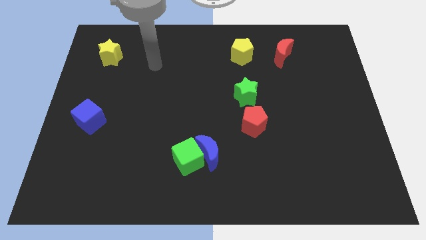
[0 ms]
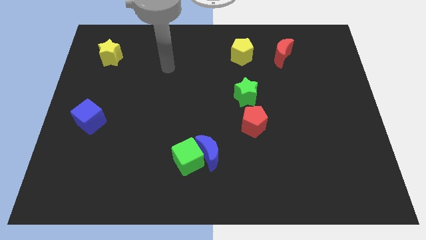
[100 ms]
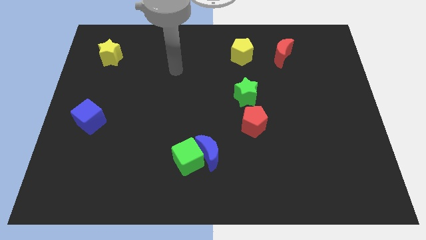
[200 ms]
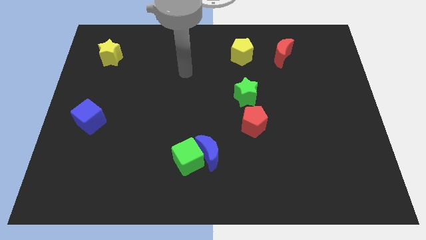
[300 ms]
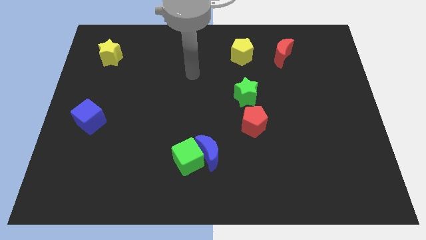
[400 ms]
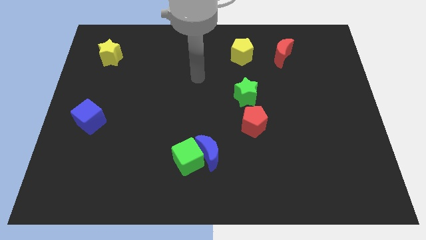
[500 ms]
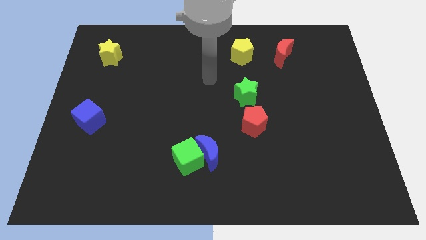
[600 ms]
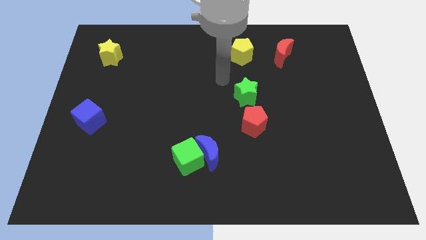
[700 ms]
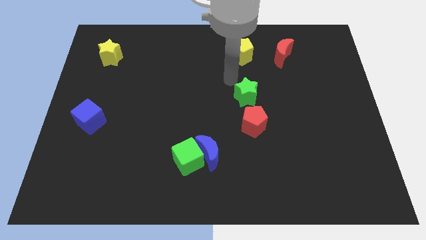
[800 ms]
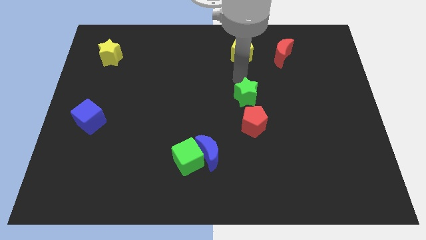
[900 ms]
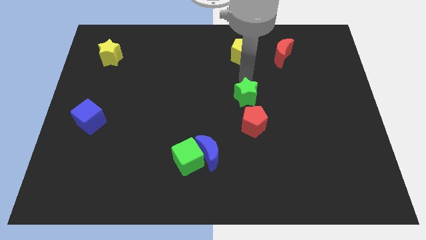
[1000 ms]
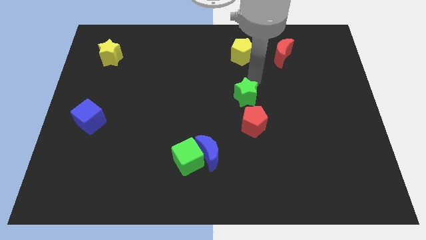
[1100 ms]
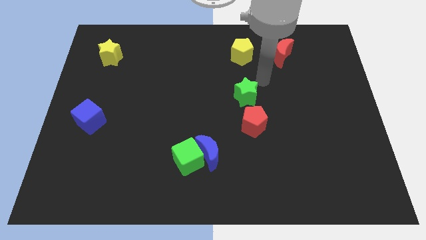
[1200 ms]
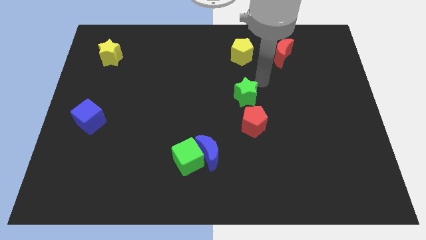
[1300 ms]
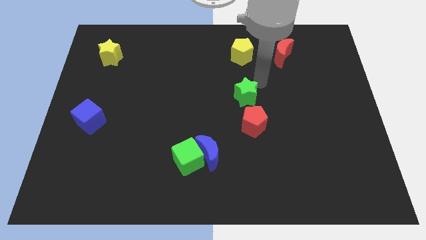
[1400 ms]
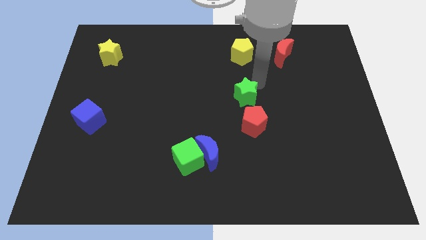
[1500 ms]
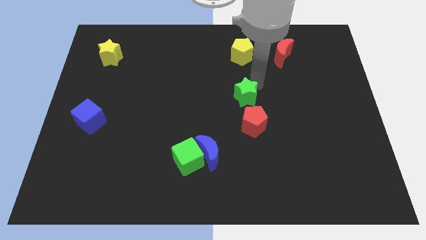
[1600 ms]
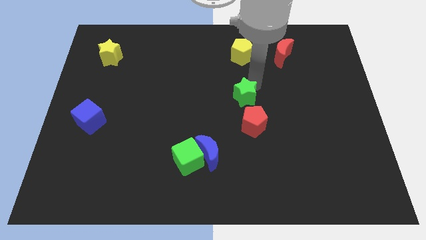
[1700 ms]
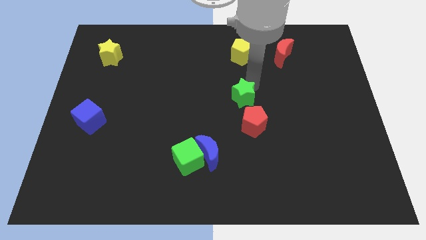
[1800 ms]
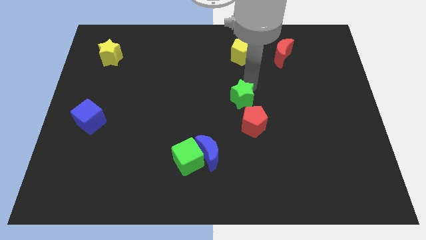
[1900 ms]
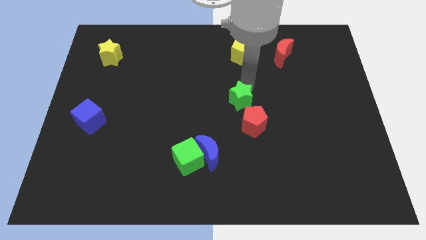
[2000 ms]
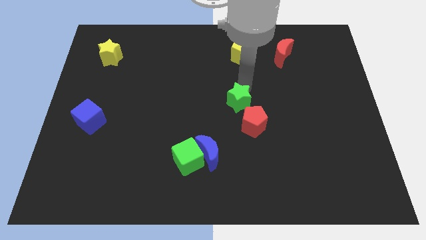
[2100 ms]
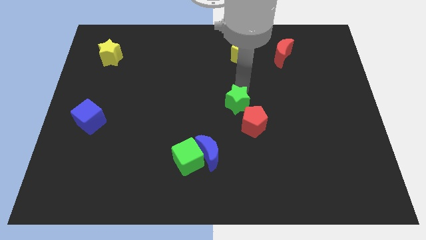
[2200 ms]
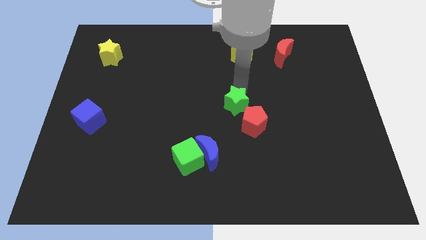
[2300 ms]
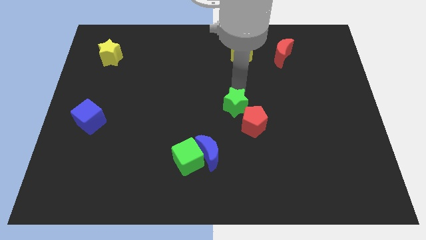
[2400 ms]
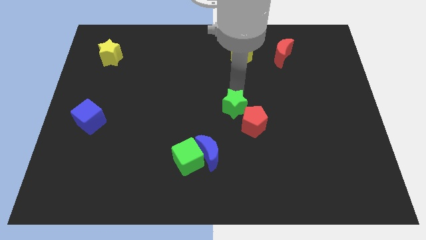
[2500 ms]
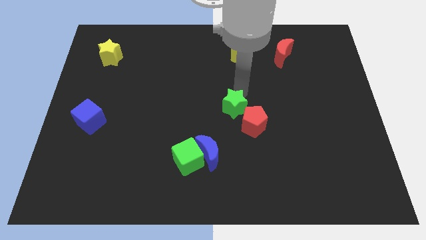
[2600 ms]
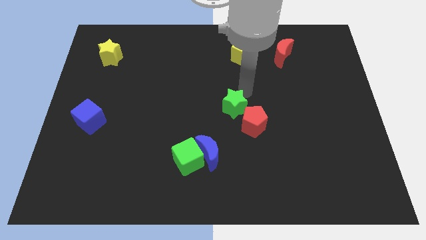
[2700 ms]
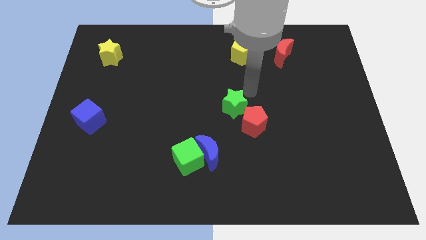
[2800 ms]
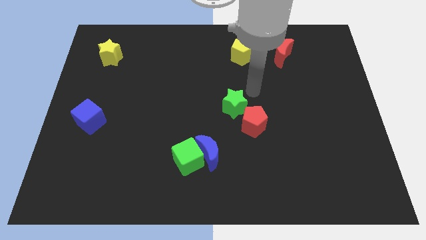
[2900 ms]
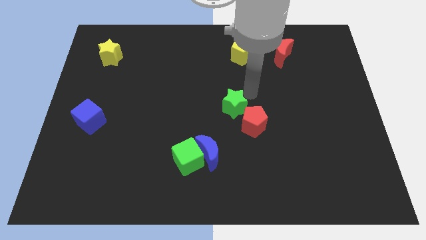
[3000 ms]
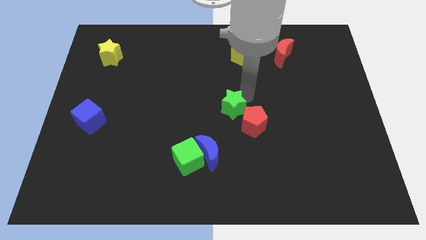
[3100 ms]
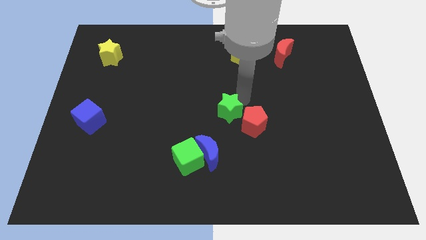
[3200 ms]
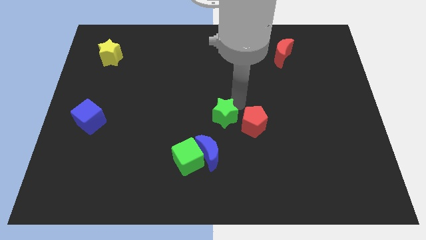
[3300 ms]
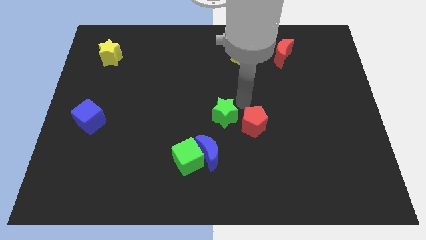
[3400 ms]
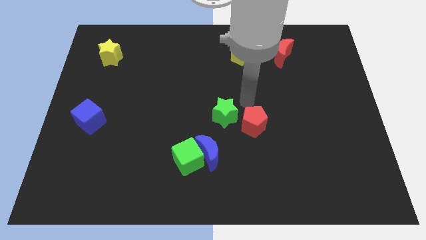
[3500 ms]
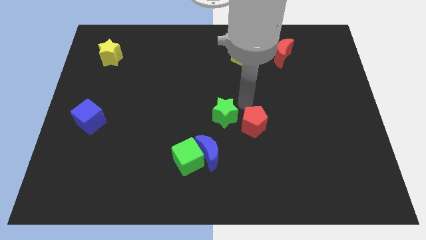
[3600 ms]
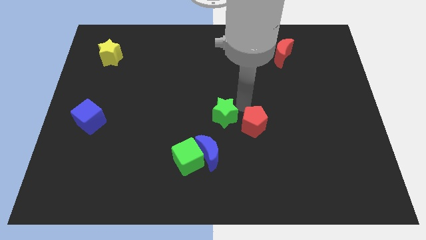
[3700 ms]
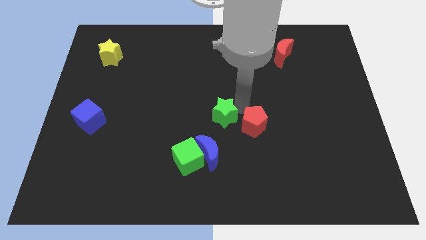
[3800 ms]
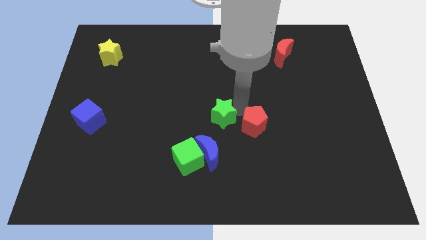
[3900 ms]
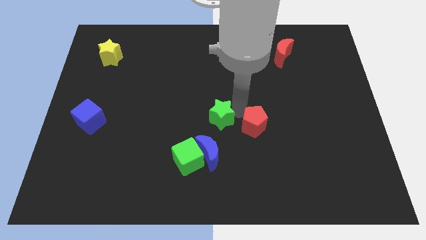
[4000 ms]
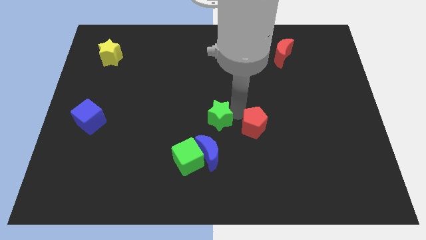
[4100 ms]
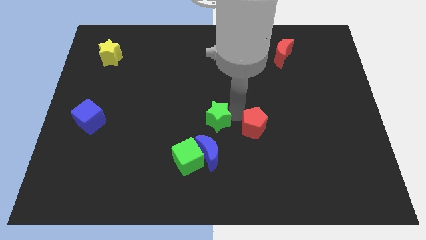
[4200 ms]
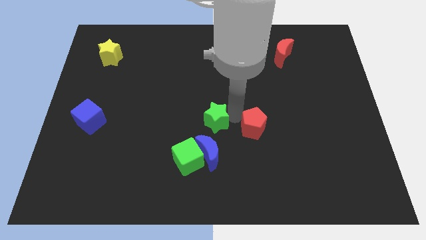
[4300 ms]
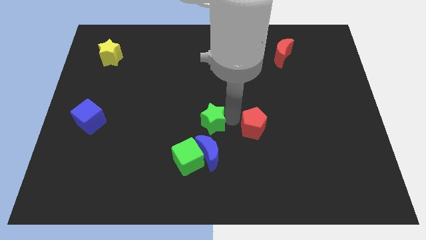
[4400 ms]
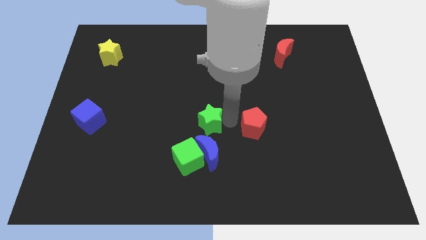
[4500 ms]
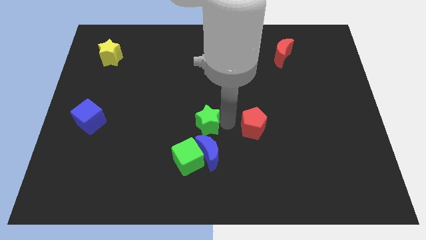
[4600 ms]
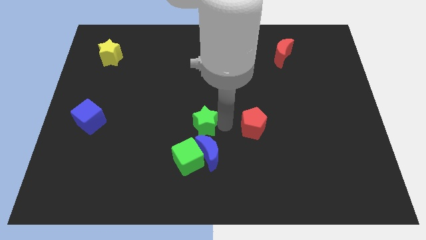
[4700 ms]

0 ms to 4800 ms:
push the green star diagonally up and to the left of the blue moon

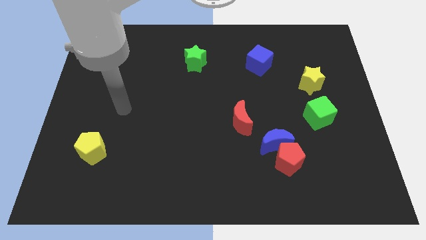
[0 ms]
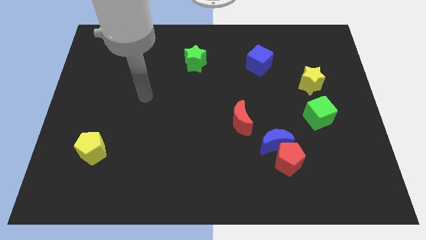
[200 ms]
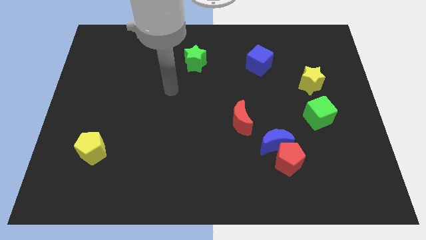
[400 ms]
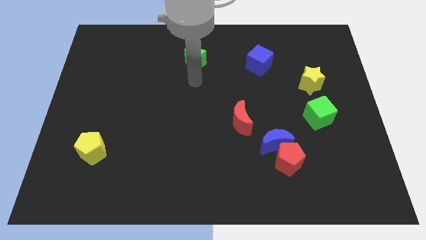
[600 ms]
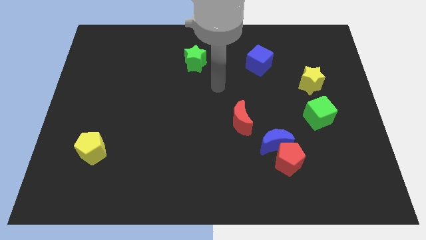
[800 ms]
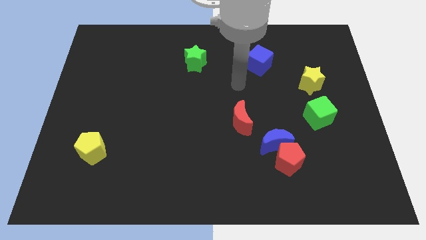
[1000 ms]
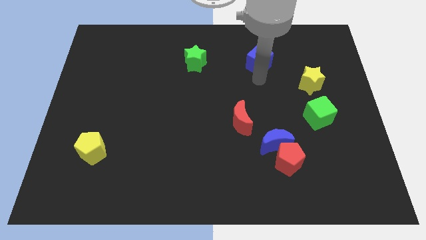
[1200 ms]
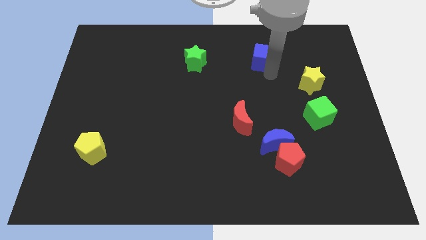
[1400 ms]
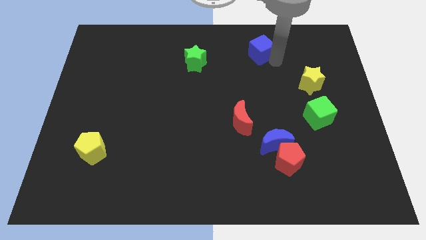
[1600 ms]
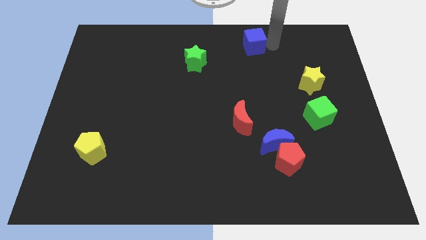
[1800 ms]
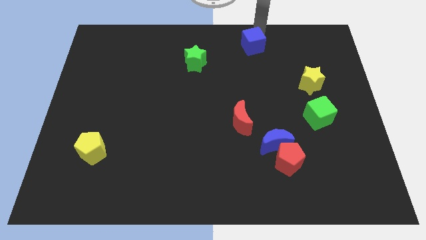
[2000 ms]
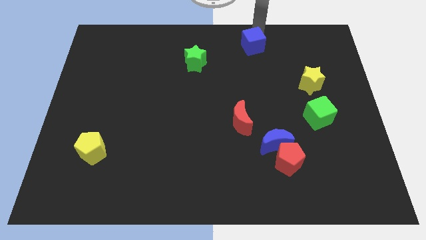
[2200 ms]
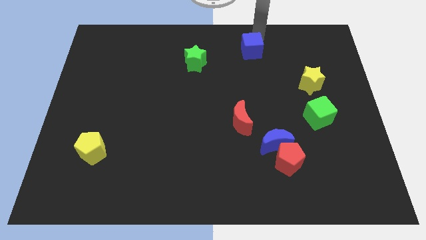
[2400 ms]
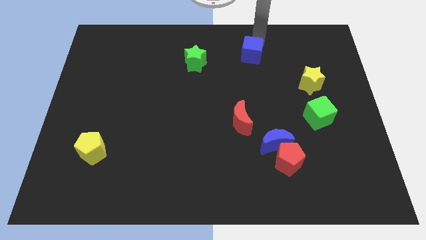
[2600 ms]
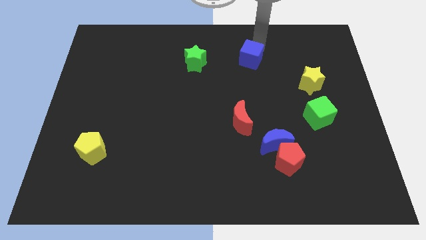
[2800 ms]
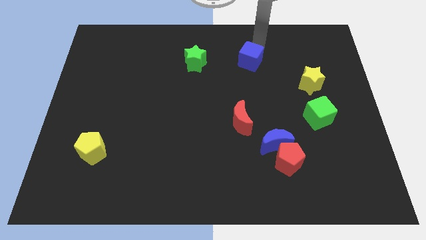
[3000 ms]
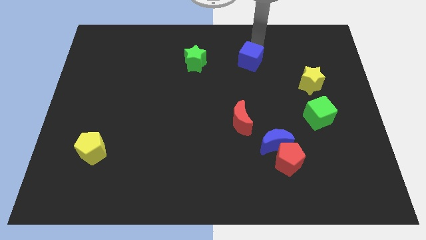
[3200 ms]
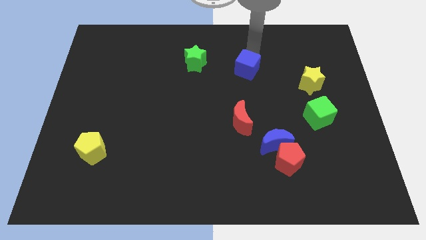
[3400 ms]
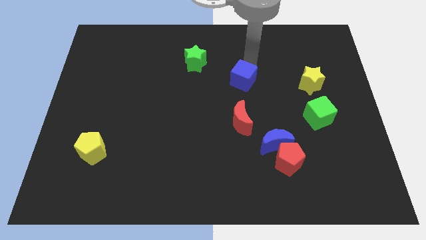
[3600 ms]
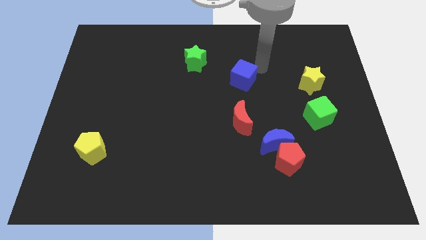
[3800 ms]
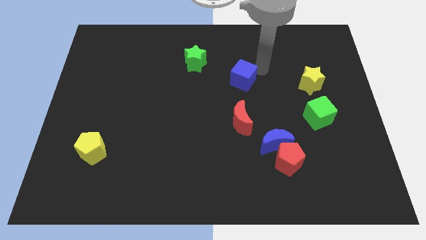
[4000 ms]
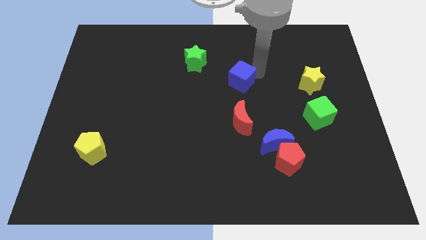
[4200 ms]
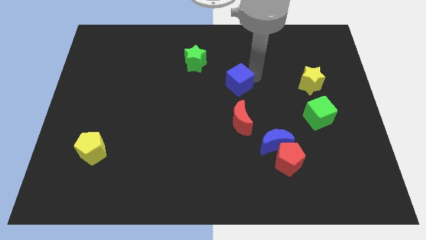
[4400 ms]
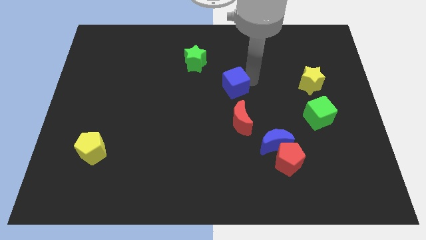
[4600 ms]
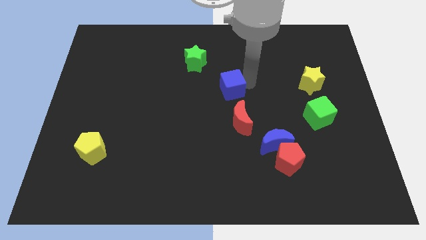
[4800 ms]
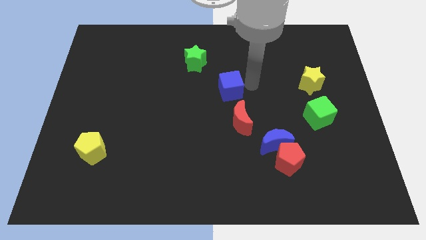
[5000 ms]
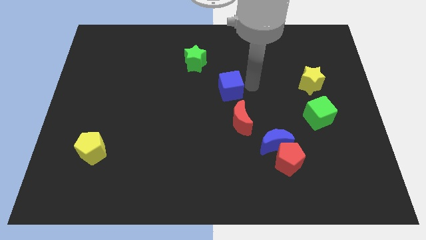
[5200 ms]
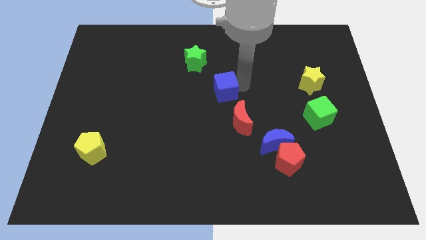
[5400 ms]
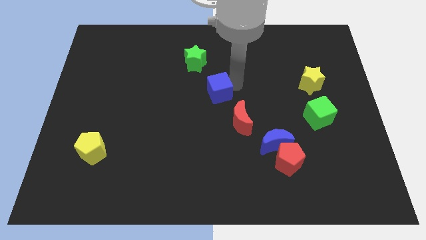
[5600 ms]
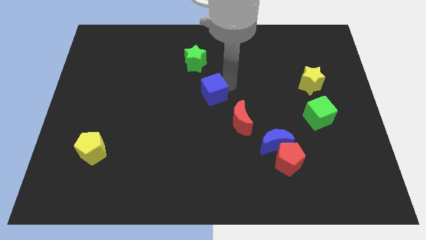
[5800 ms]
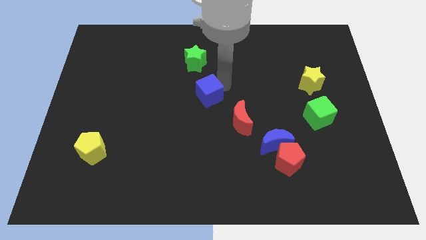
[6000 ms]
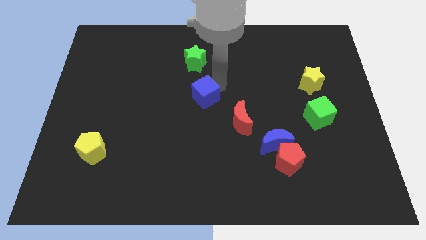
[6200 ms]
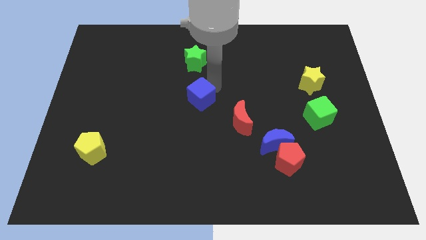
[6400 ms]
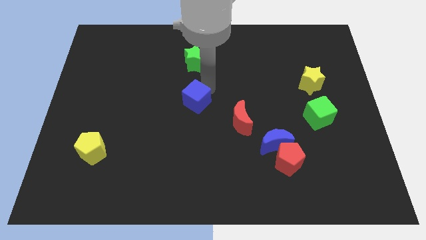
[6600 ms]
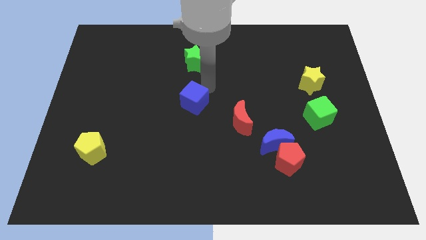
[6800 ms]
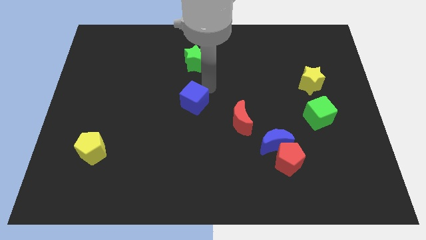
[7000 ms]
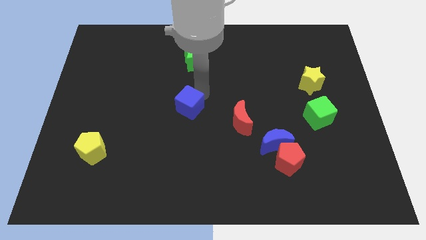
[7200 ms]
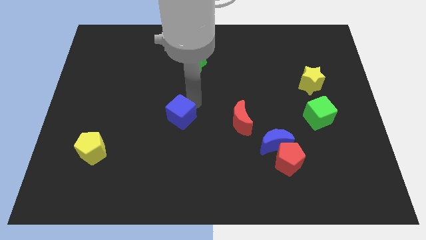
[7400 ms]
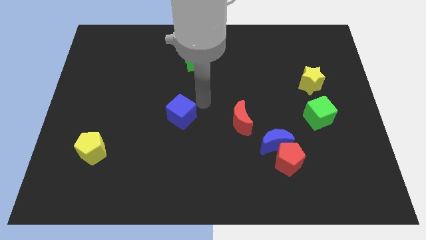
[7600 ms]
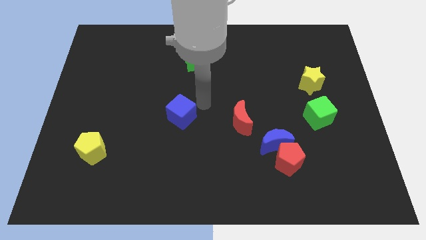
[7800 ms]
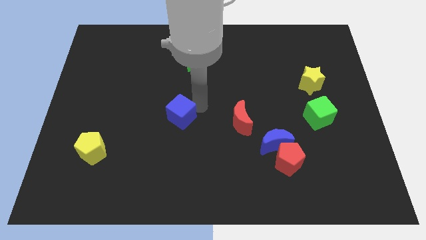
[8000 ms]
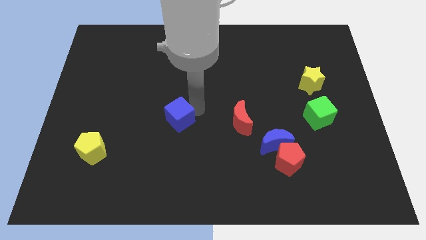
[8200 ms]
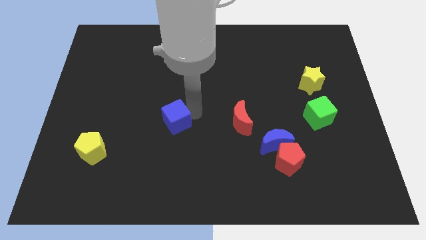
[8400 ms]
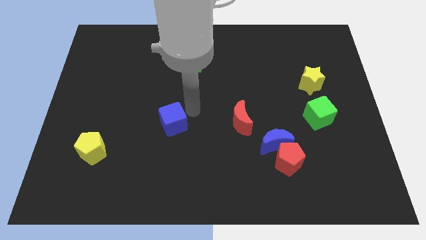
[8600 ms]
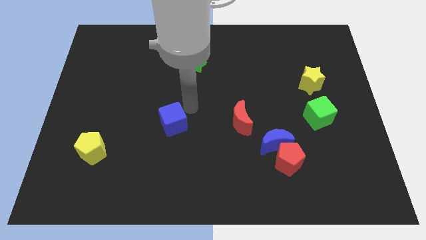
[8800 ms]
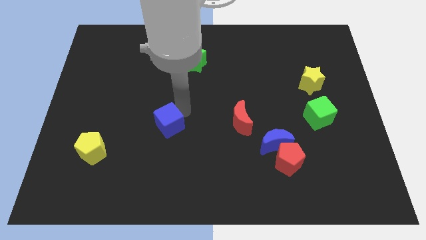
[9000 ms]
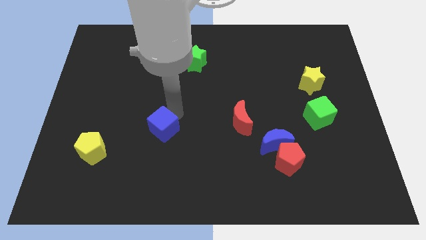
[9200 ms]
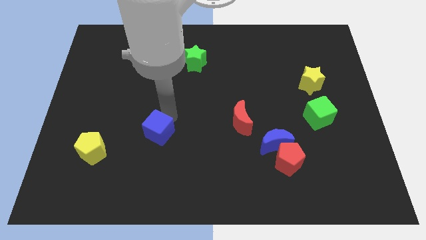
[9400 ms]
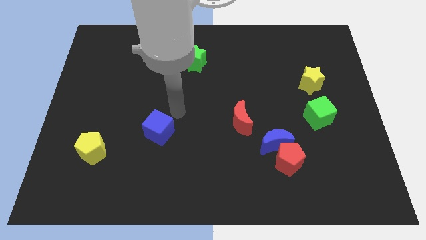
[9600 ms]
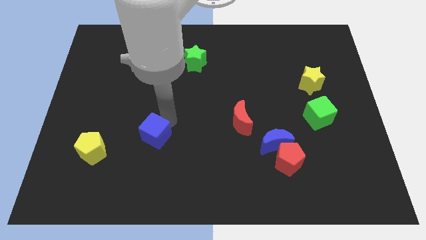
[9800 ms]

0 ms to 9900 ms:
move the blue cube right of the yellow pentagon
